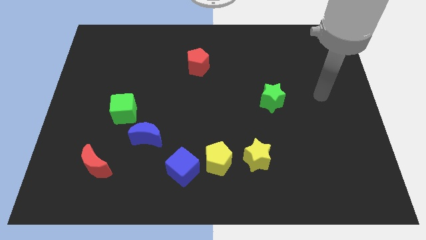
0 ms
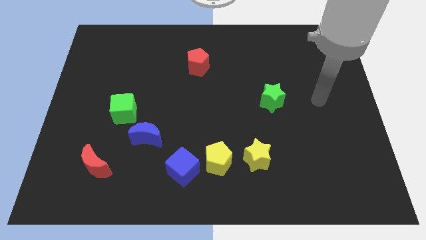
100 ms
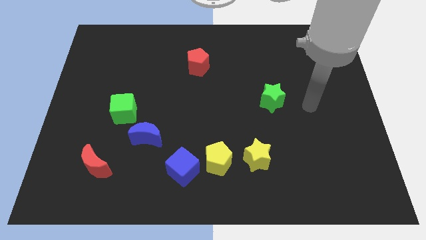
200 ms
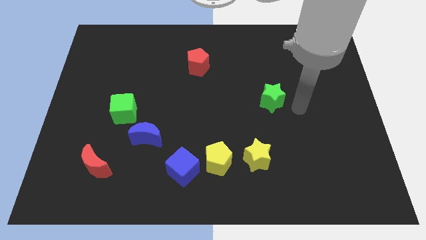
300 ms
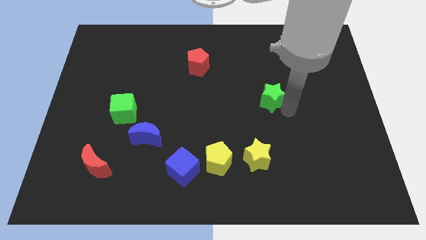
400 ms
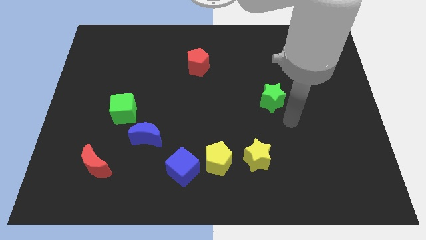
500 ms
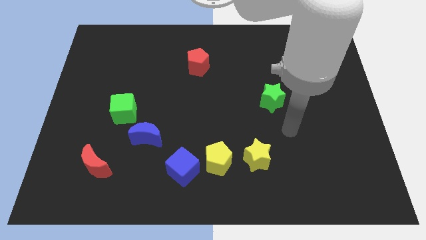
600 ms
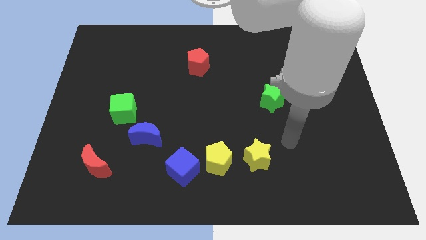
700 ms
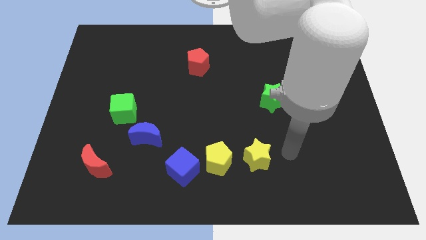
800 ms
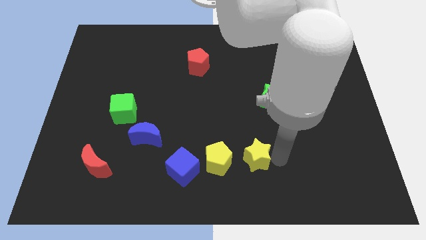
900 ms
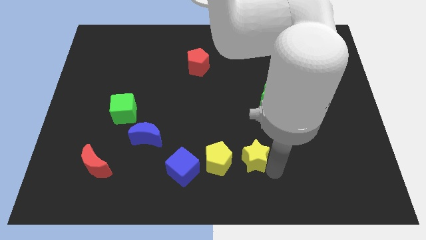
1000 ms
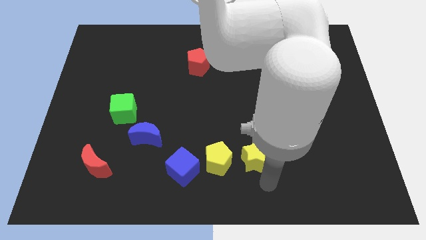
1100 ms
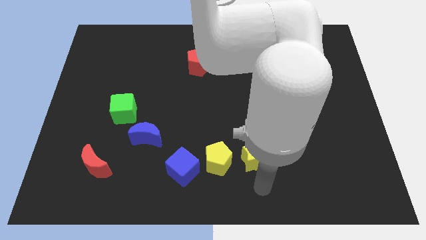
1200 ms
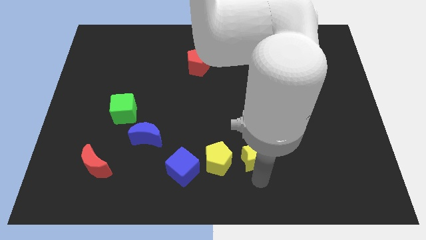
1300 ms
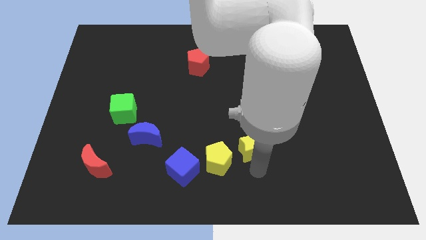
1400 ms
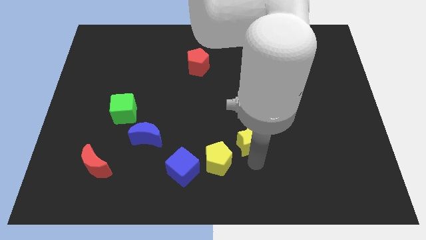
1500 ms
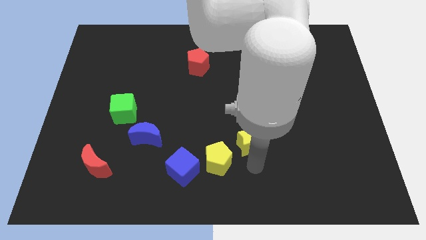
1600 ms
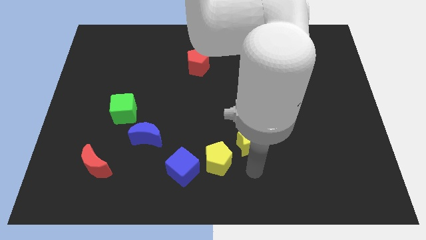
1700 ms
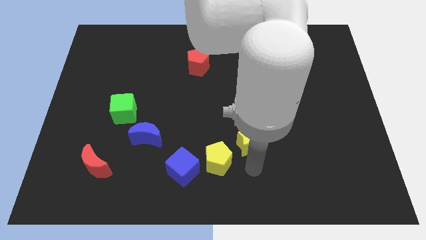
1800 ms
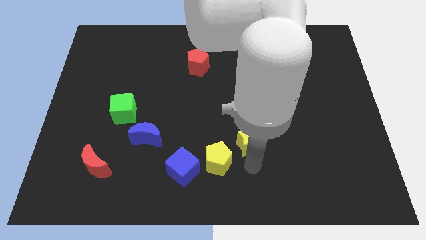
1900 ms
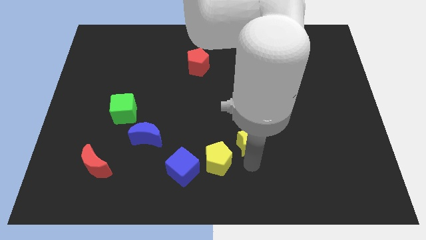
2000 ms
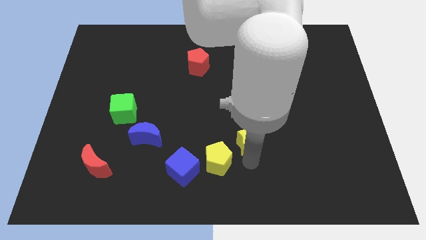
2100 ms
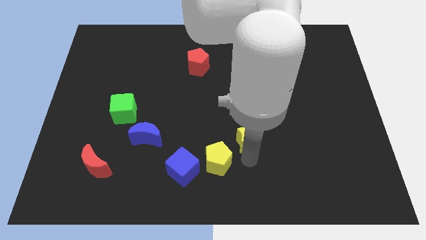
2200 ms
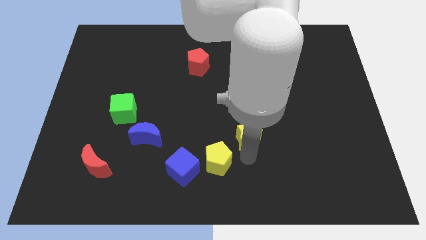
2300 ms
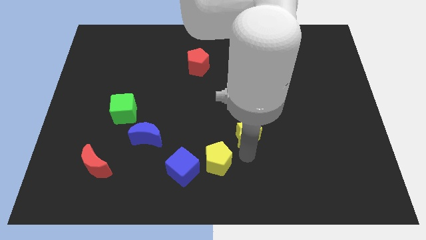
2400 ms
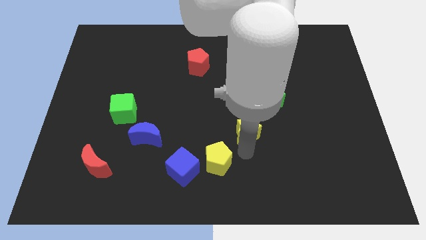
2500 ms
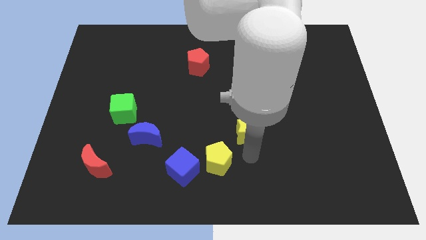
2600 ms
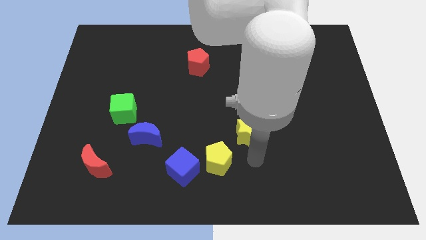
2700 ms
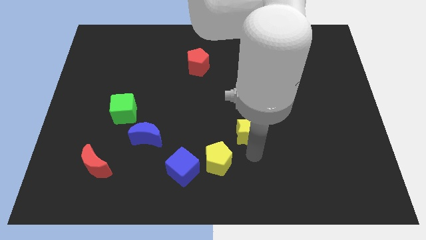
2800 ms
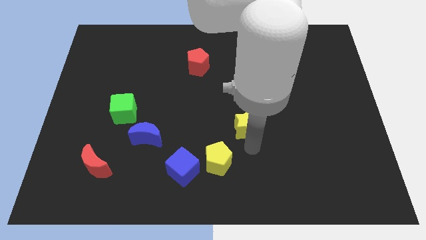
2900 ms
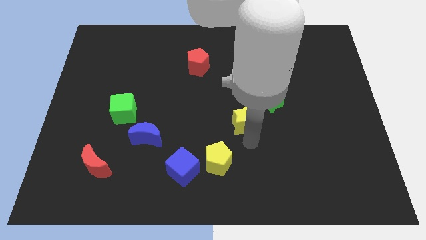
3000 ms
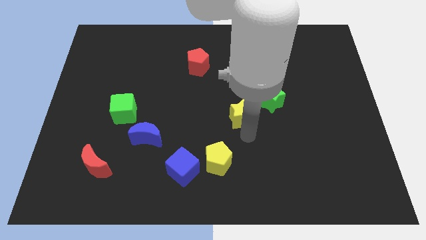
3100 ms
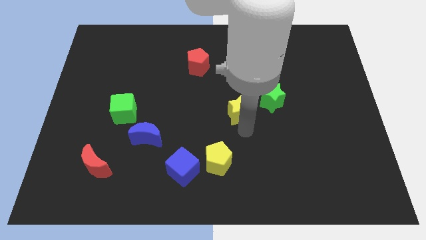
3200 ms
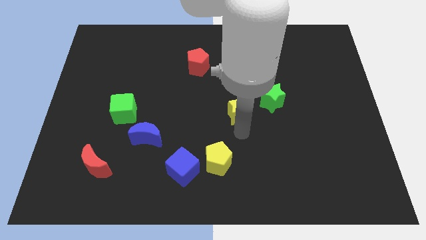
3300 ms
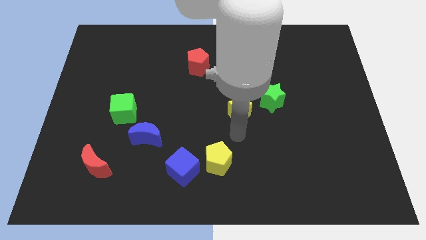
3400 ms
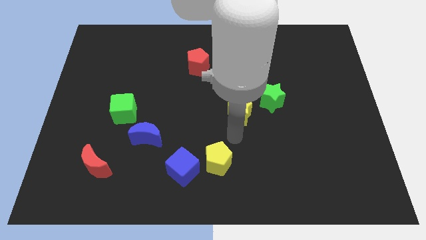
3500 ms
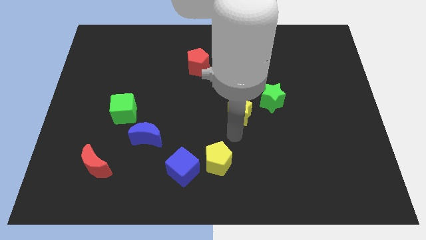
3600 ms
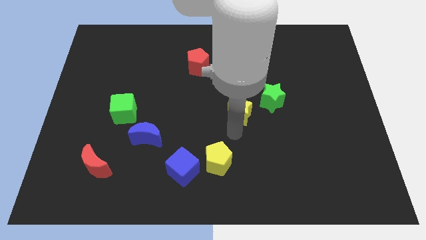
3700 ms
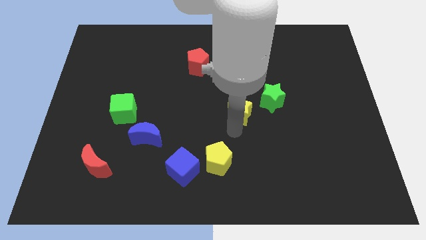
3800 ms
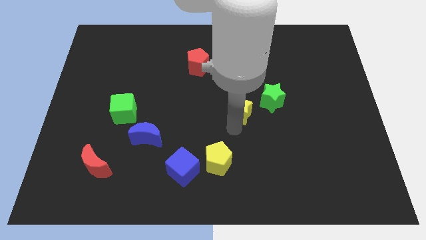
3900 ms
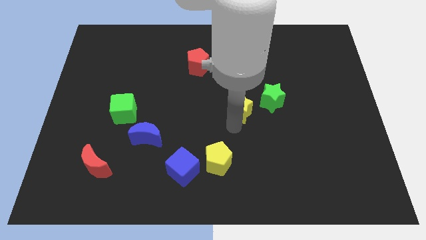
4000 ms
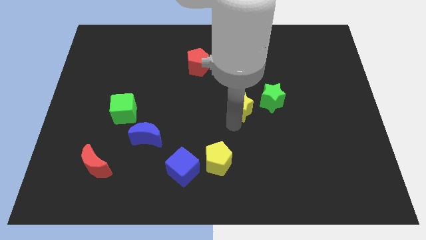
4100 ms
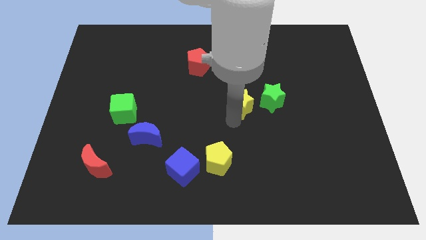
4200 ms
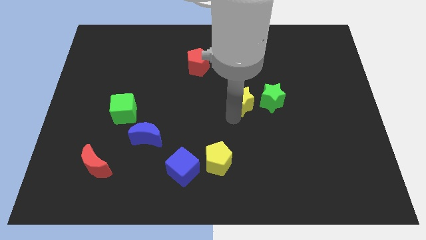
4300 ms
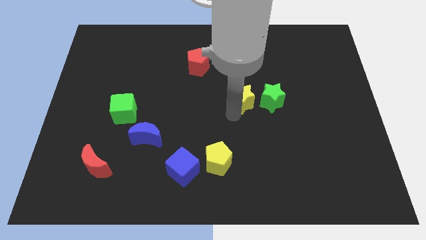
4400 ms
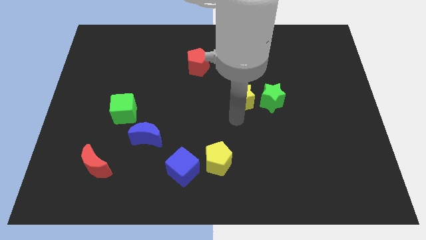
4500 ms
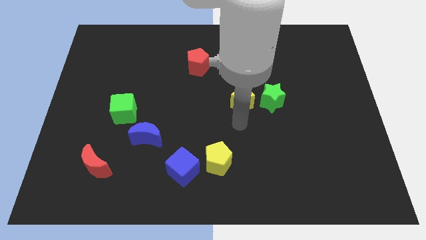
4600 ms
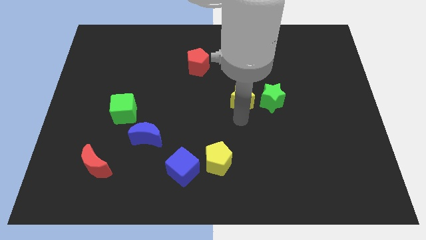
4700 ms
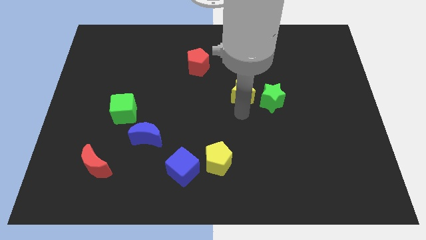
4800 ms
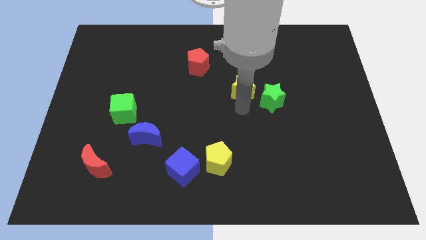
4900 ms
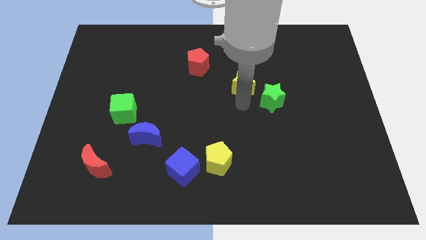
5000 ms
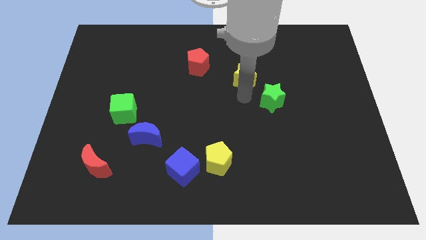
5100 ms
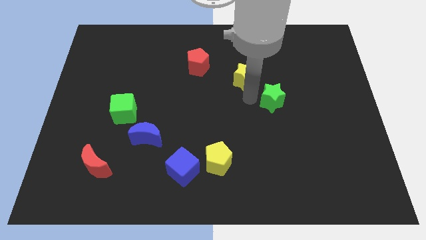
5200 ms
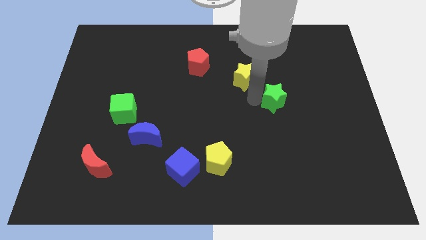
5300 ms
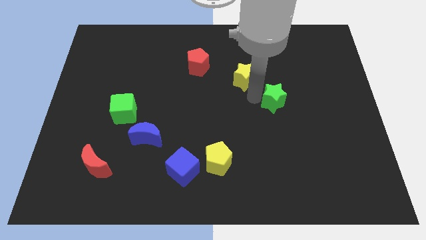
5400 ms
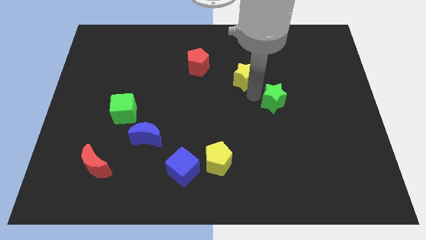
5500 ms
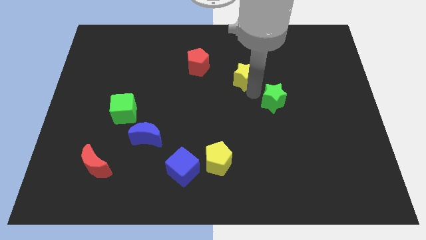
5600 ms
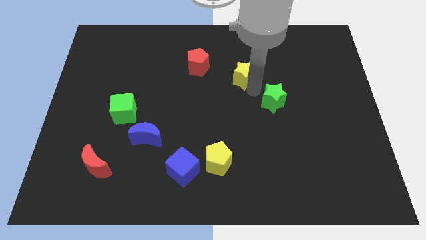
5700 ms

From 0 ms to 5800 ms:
put the yellow star right of the red pentagon

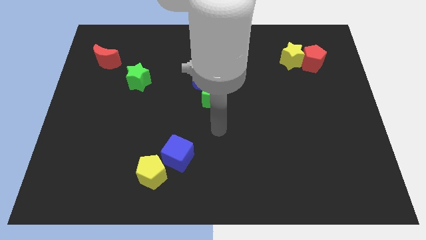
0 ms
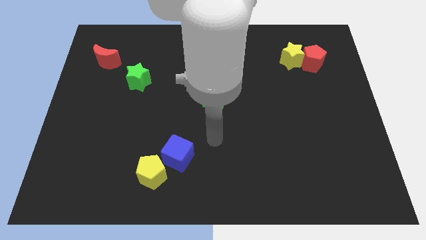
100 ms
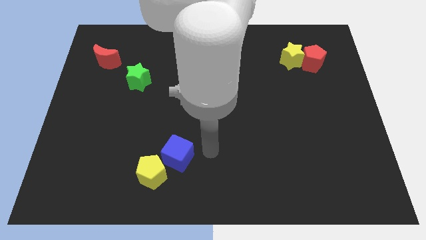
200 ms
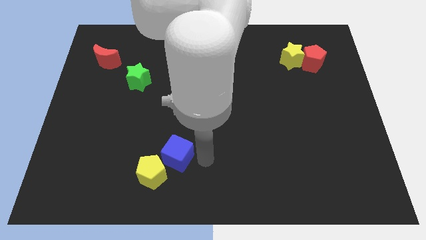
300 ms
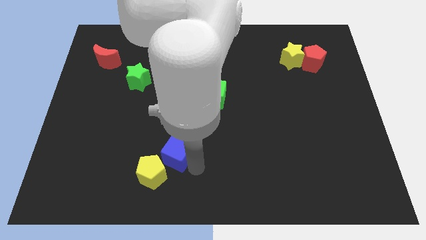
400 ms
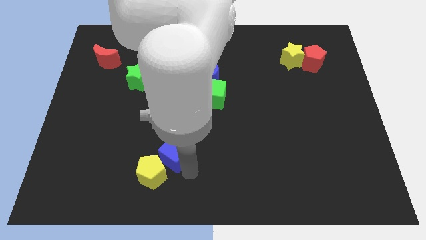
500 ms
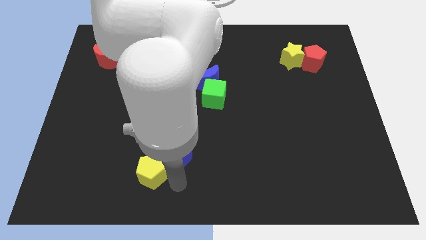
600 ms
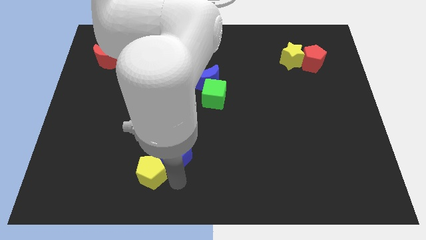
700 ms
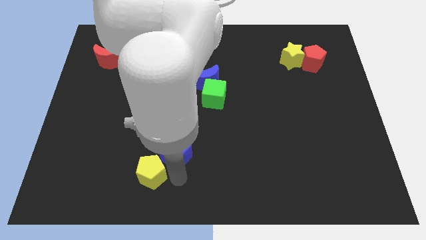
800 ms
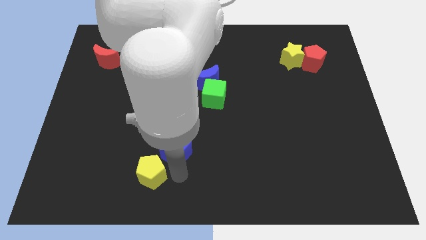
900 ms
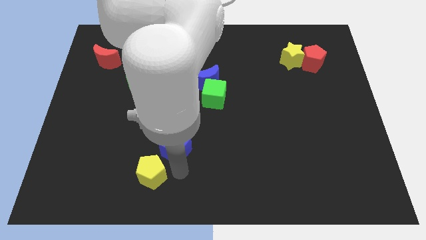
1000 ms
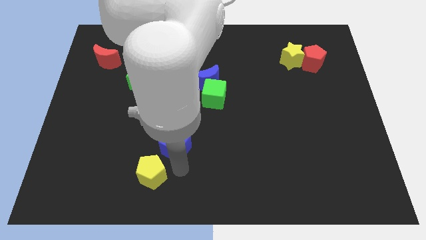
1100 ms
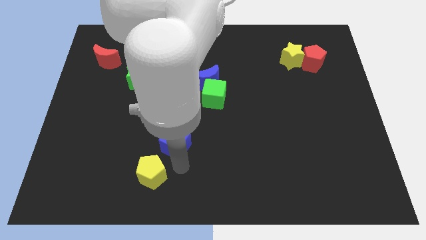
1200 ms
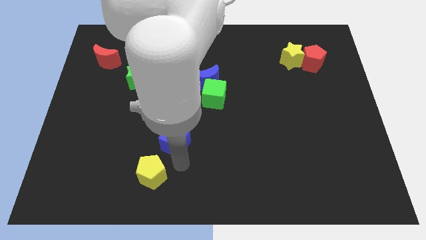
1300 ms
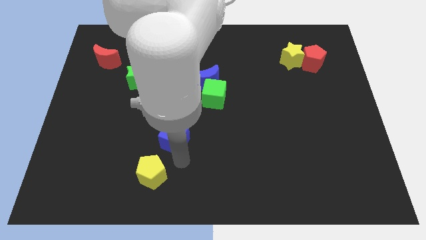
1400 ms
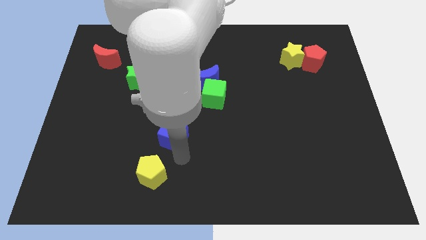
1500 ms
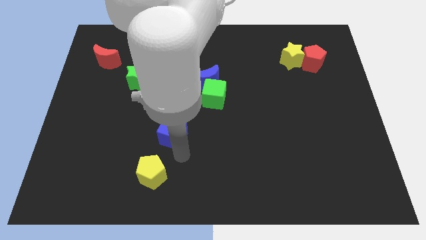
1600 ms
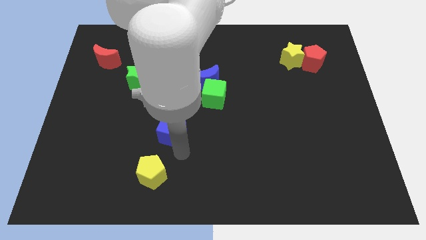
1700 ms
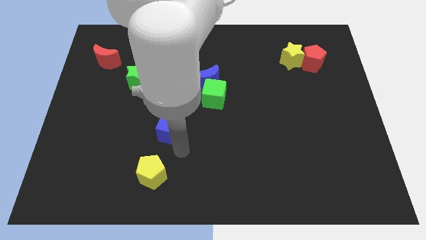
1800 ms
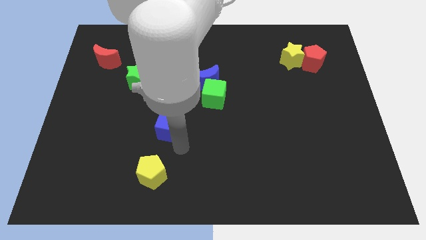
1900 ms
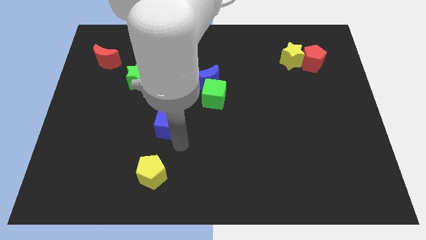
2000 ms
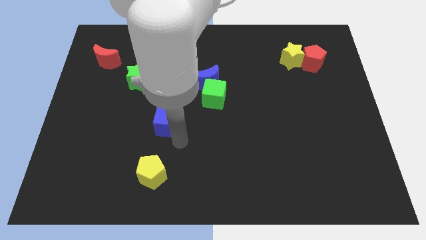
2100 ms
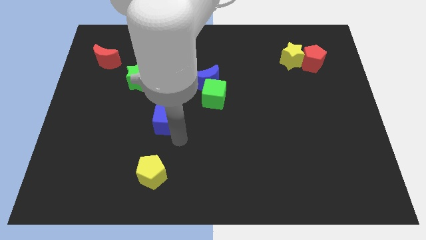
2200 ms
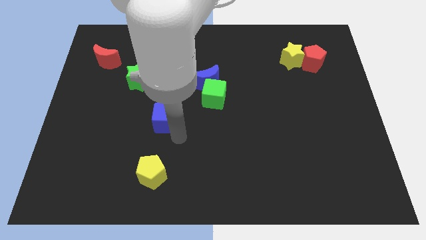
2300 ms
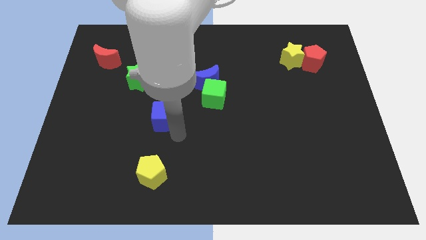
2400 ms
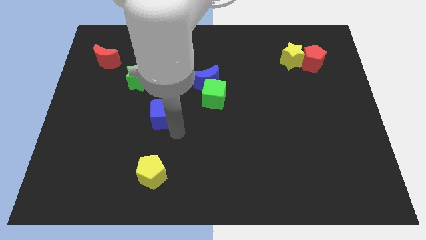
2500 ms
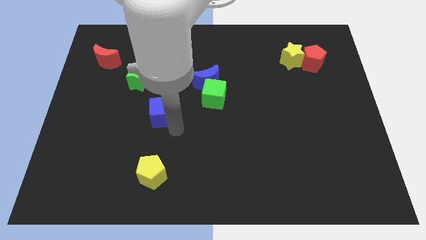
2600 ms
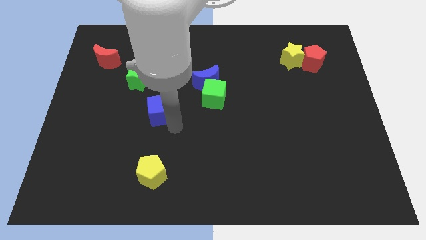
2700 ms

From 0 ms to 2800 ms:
push the blue cube to the bottom right of the green star

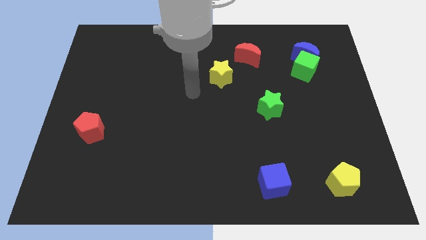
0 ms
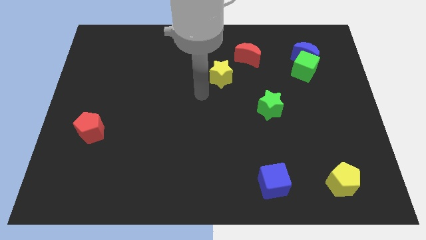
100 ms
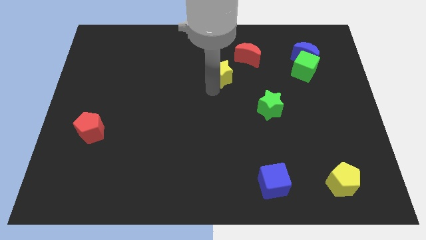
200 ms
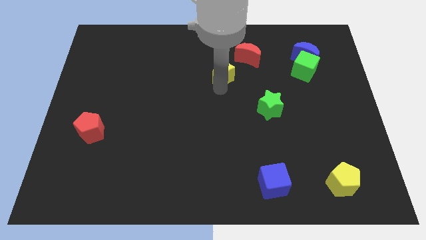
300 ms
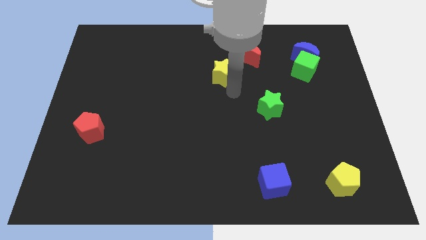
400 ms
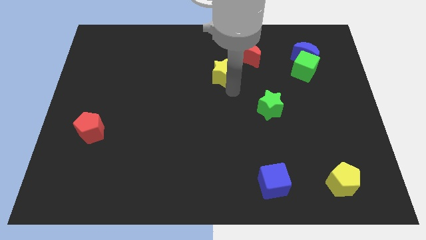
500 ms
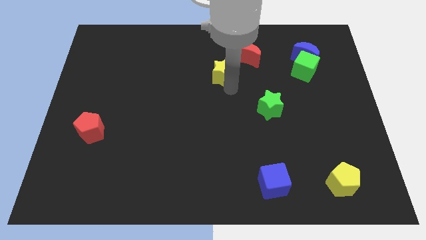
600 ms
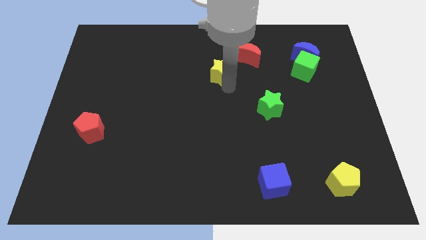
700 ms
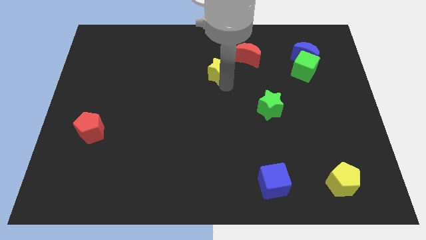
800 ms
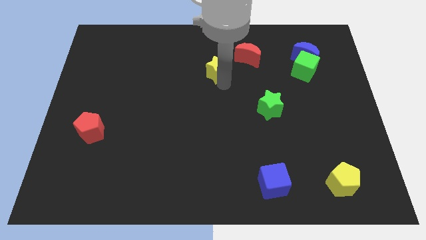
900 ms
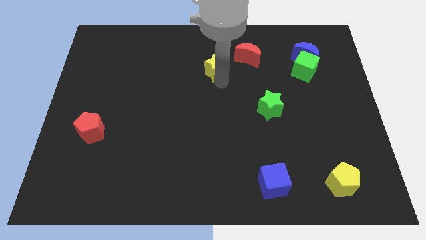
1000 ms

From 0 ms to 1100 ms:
move the yellow star just left of the red moon
